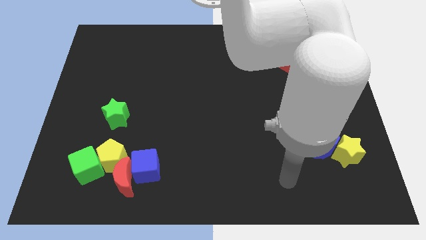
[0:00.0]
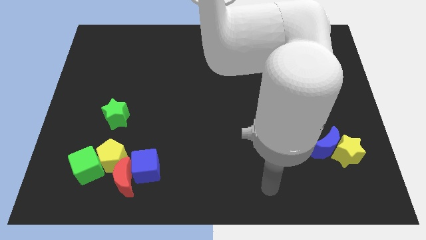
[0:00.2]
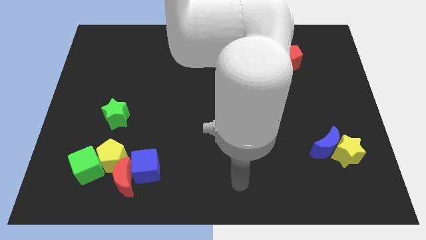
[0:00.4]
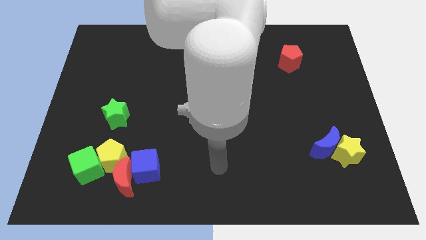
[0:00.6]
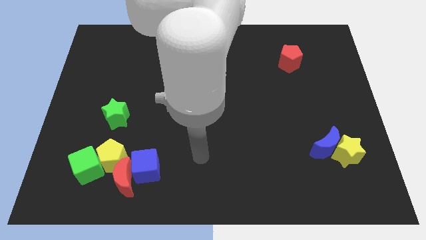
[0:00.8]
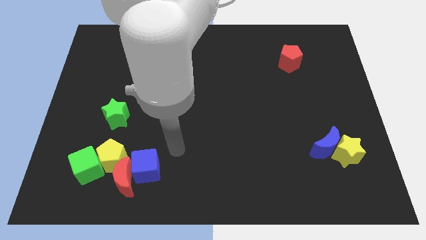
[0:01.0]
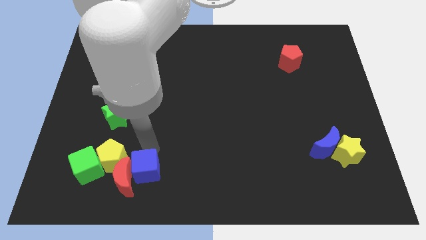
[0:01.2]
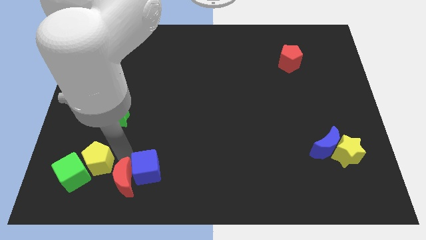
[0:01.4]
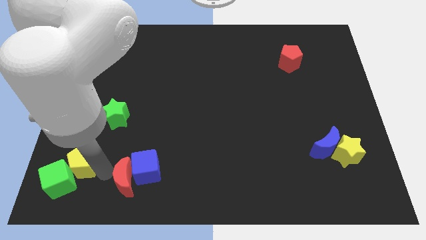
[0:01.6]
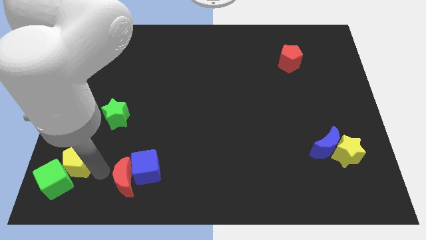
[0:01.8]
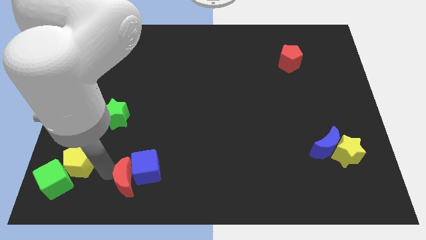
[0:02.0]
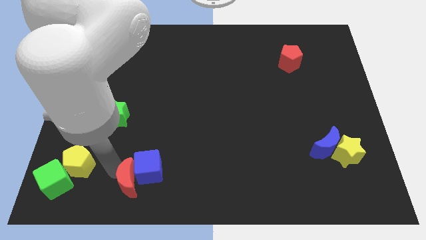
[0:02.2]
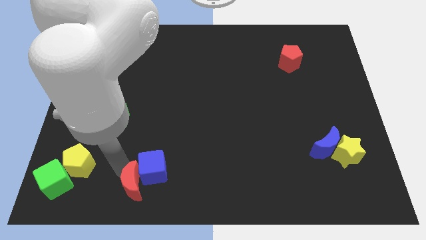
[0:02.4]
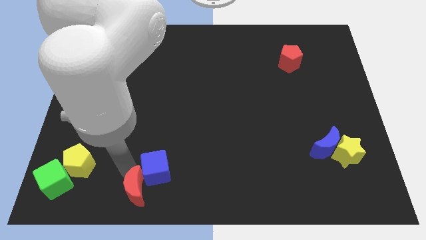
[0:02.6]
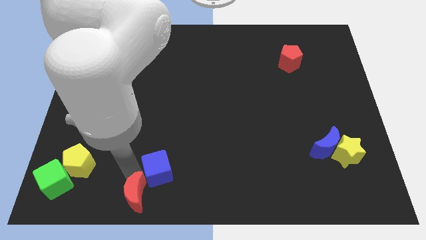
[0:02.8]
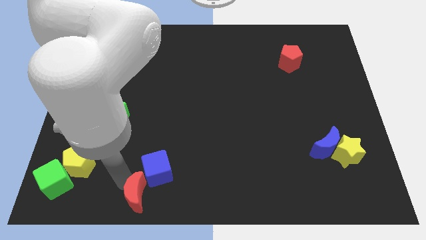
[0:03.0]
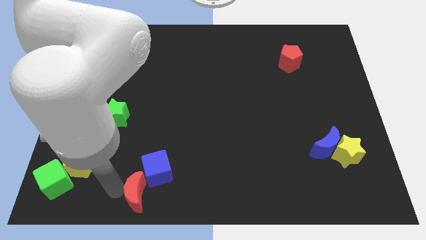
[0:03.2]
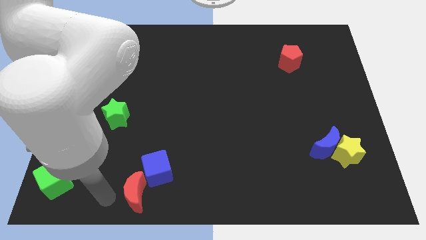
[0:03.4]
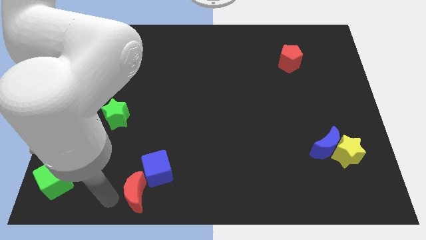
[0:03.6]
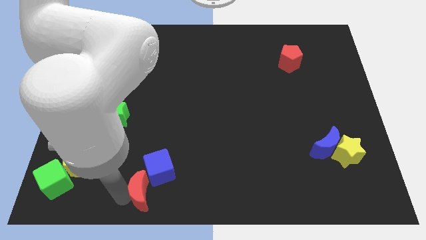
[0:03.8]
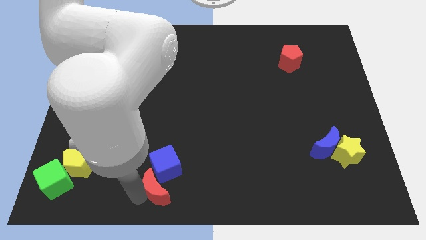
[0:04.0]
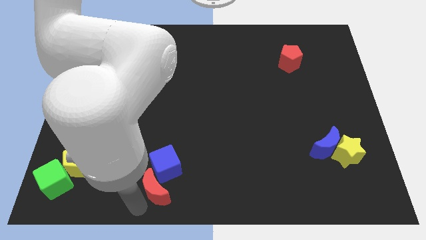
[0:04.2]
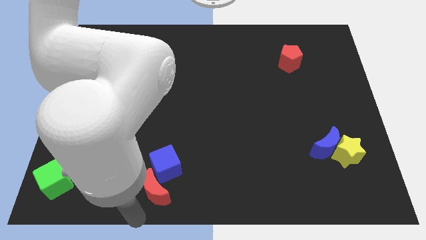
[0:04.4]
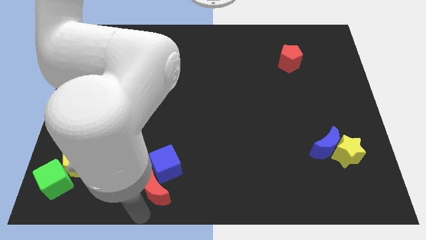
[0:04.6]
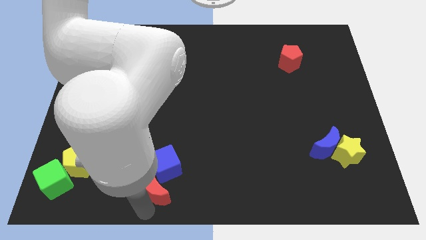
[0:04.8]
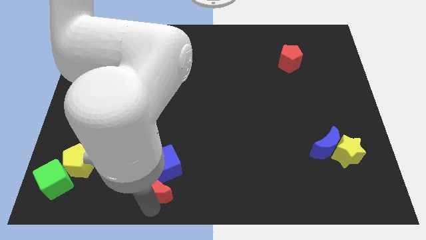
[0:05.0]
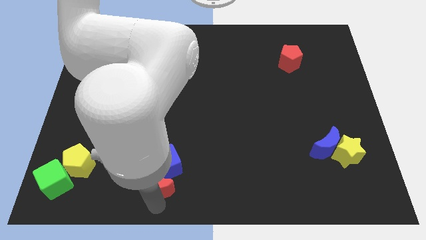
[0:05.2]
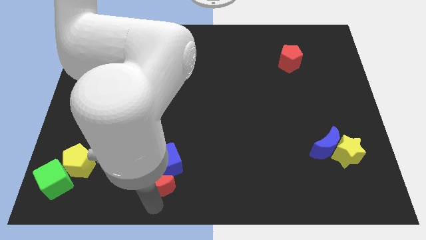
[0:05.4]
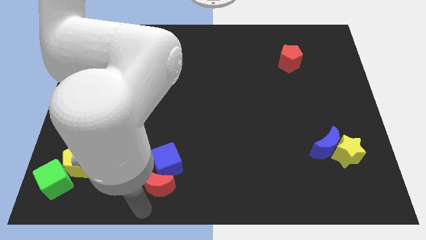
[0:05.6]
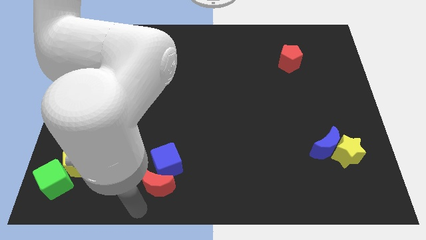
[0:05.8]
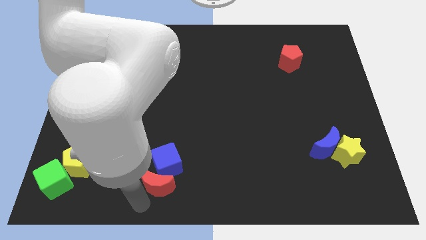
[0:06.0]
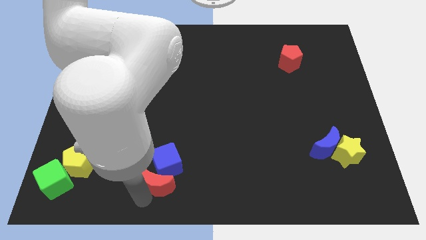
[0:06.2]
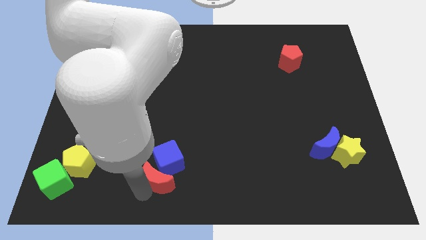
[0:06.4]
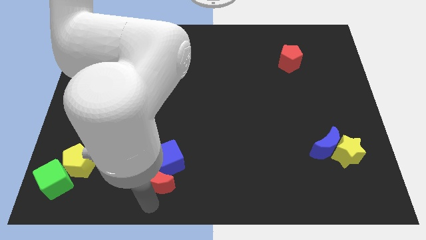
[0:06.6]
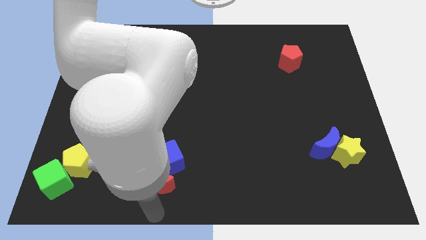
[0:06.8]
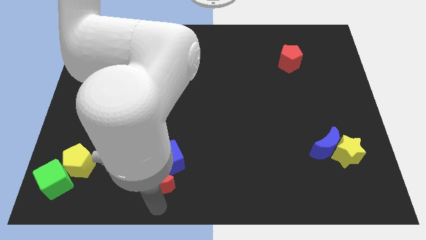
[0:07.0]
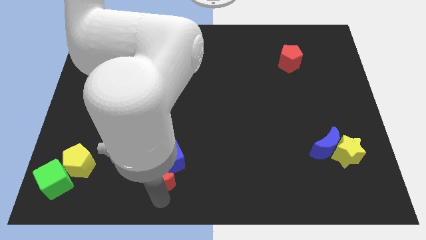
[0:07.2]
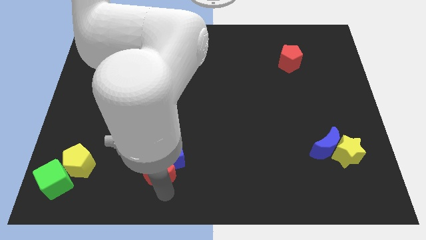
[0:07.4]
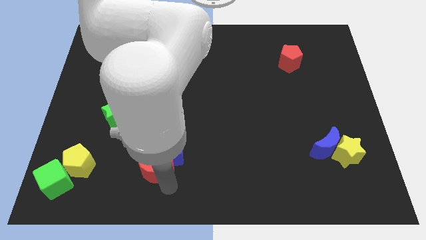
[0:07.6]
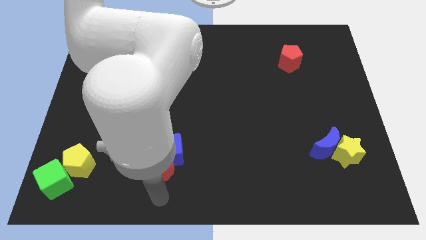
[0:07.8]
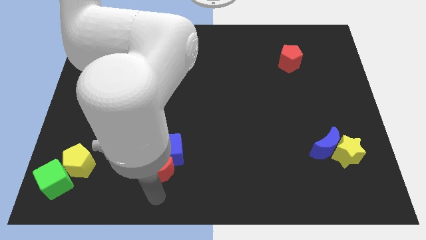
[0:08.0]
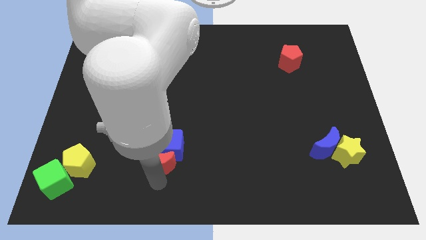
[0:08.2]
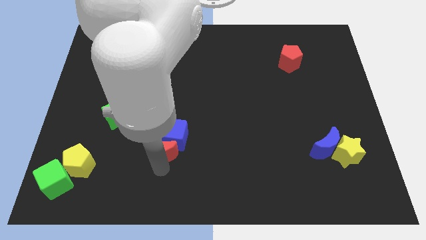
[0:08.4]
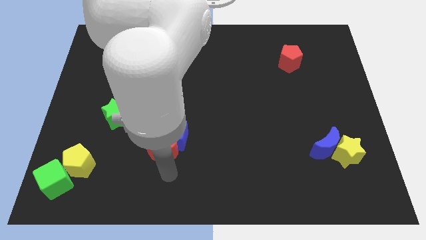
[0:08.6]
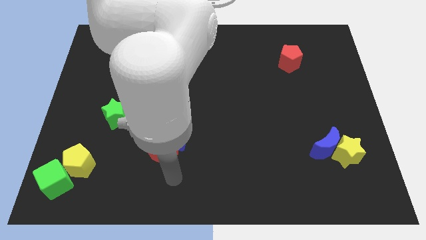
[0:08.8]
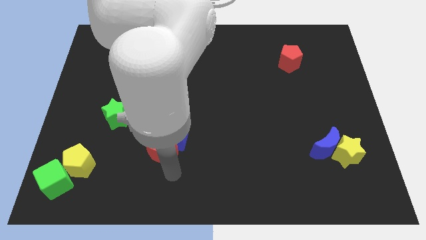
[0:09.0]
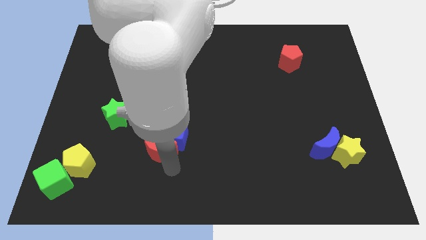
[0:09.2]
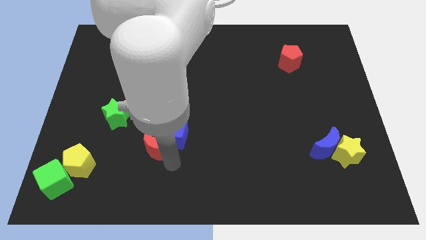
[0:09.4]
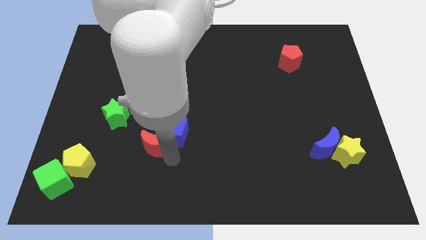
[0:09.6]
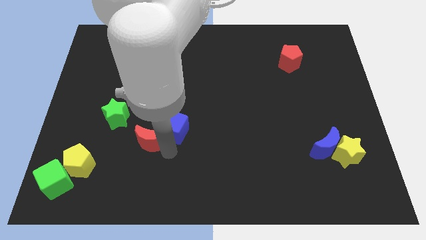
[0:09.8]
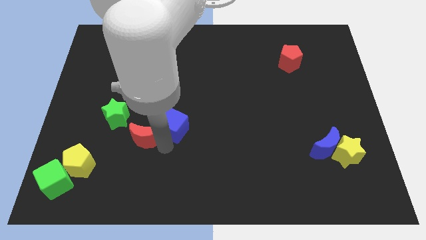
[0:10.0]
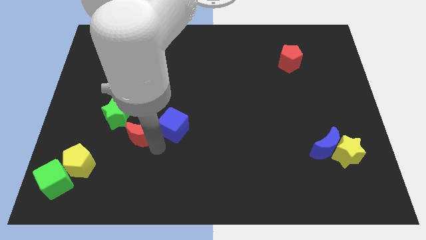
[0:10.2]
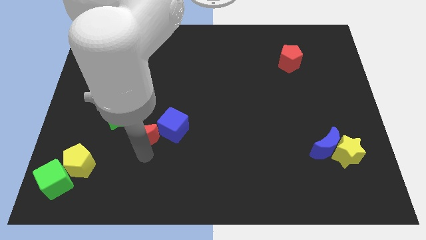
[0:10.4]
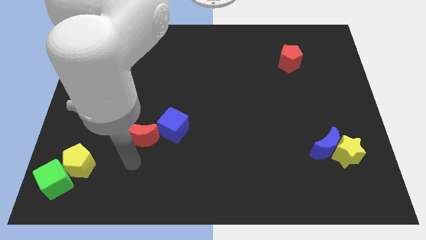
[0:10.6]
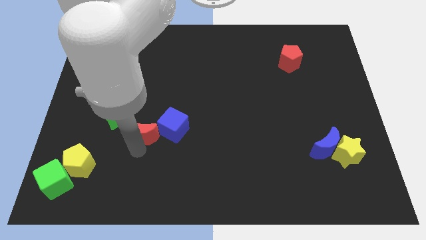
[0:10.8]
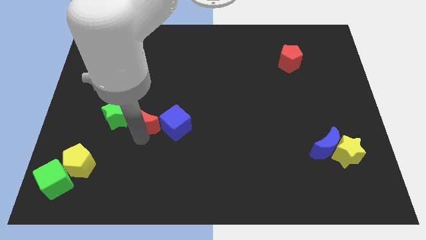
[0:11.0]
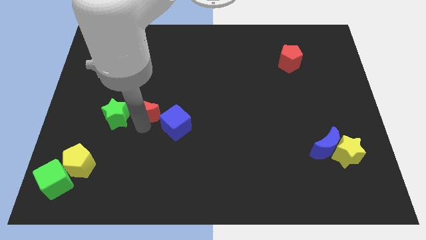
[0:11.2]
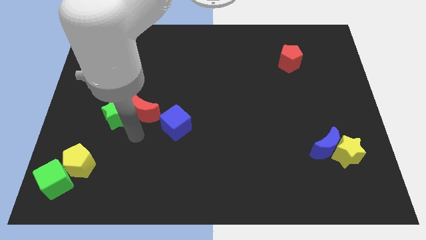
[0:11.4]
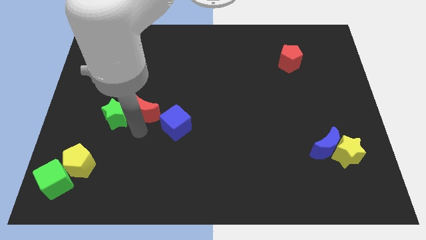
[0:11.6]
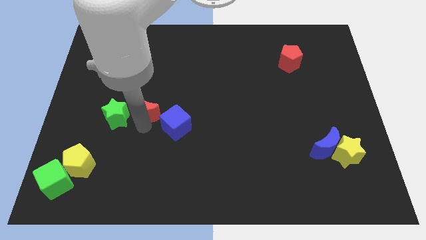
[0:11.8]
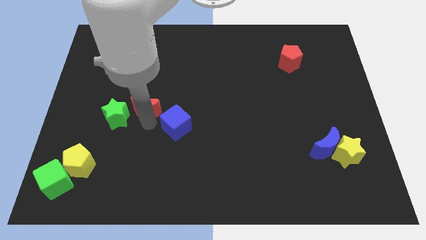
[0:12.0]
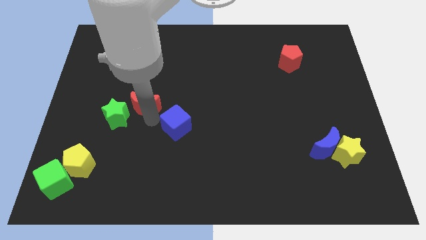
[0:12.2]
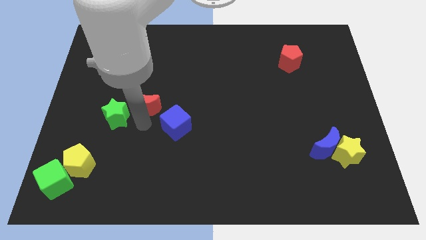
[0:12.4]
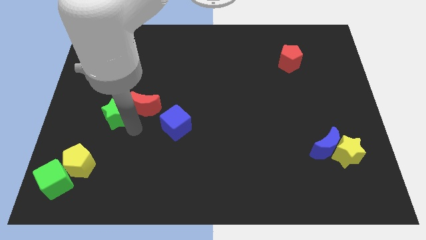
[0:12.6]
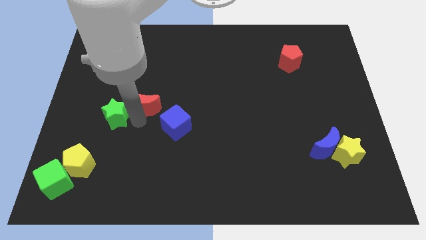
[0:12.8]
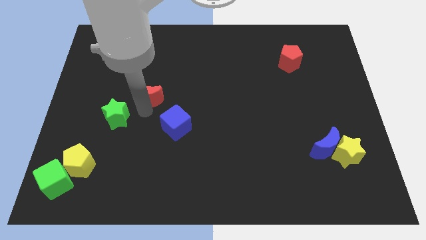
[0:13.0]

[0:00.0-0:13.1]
push the red moon up

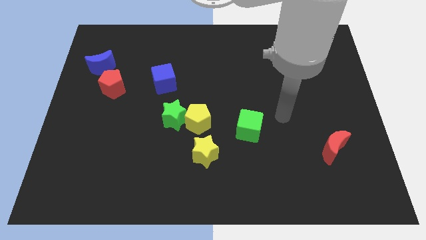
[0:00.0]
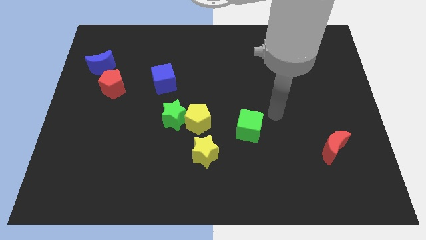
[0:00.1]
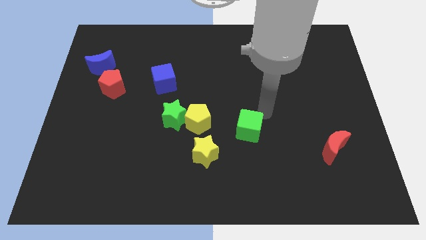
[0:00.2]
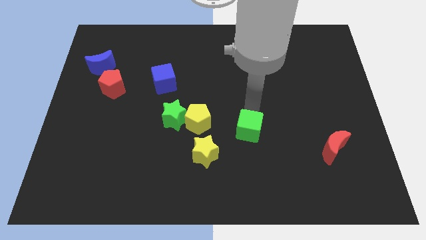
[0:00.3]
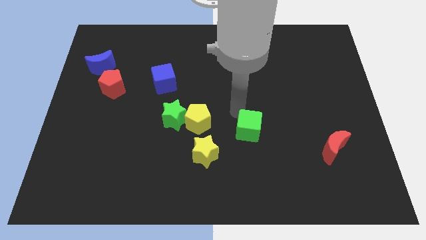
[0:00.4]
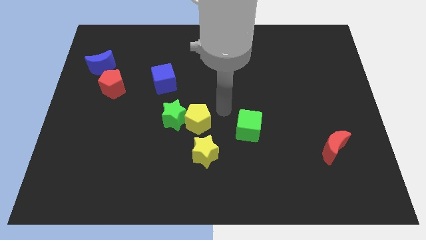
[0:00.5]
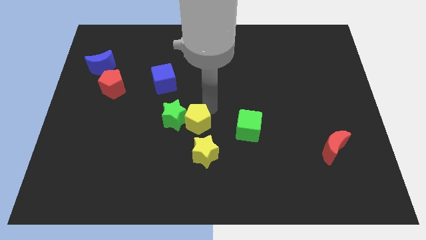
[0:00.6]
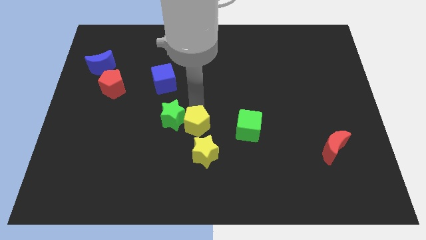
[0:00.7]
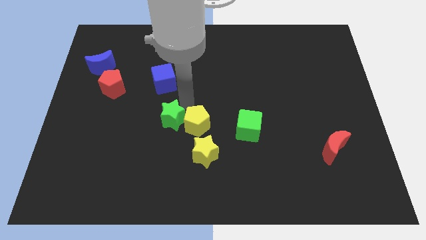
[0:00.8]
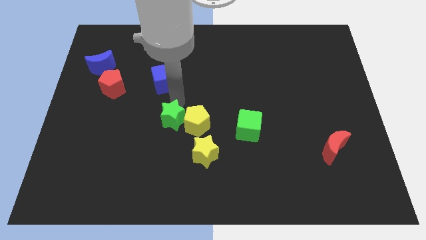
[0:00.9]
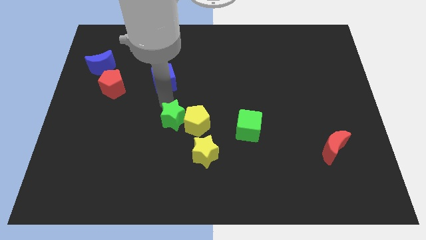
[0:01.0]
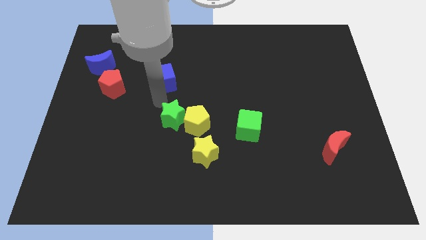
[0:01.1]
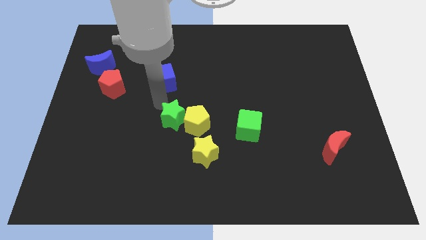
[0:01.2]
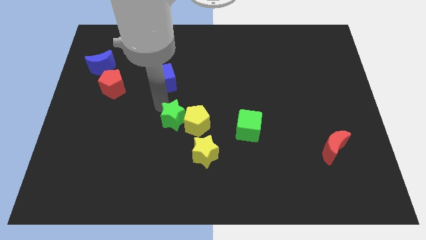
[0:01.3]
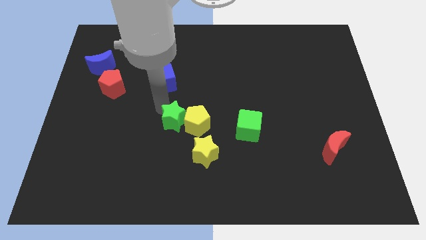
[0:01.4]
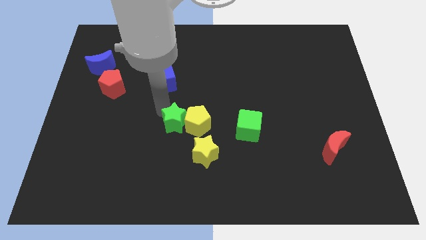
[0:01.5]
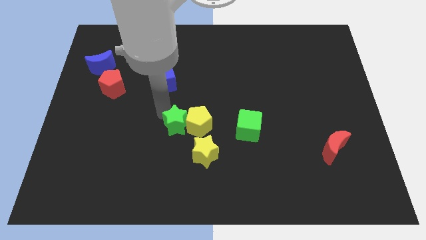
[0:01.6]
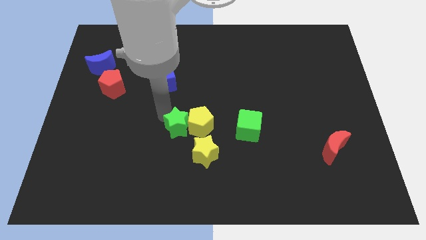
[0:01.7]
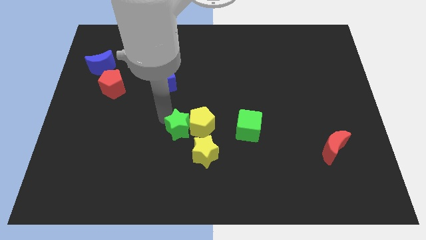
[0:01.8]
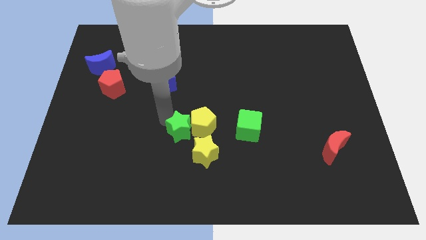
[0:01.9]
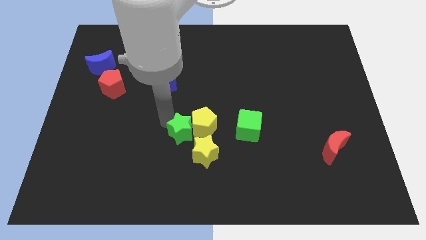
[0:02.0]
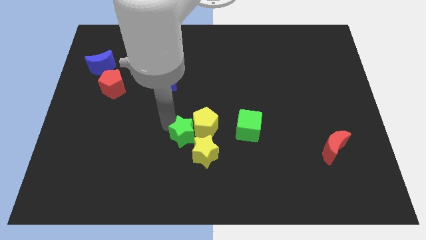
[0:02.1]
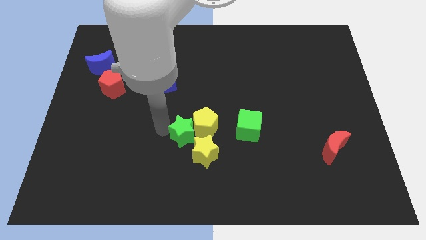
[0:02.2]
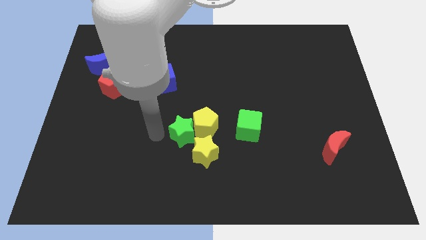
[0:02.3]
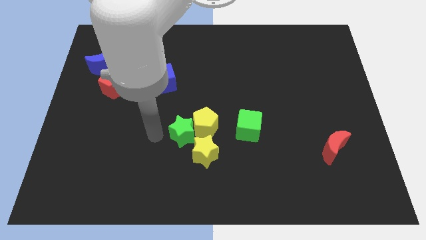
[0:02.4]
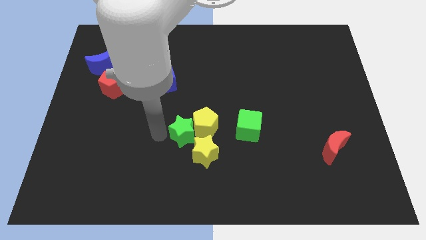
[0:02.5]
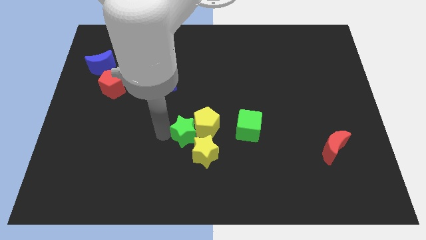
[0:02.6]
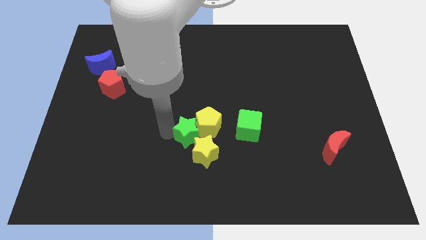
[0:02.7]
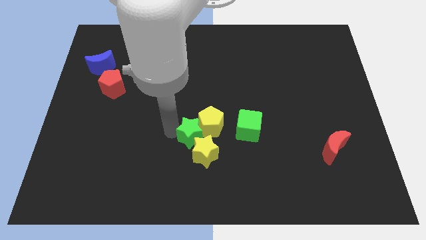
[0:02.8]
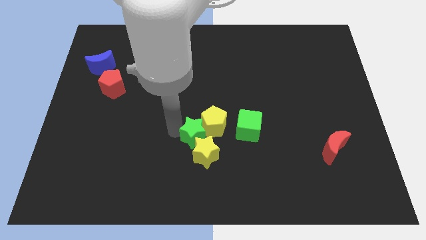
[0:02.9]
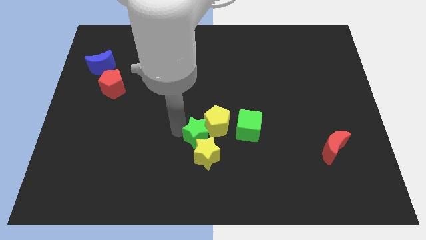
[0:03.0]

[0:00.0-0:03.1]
push the green star diagonally downwards and right somewhat
